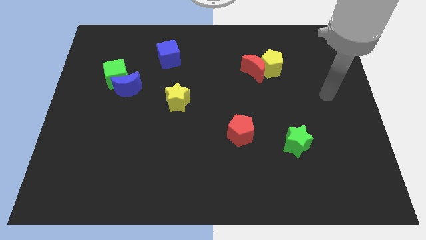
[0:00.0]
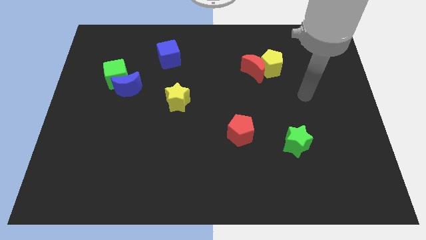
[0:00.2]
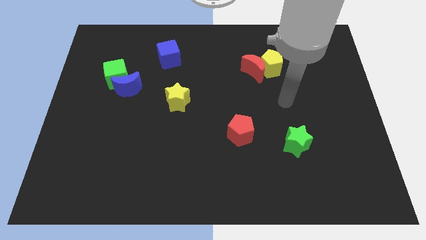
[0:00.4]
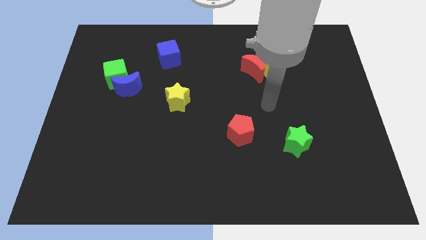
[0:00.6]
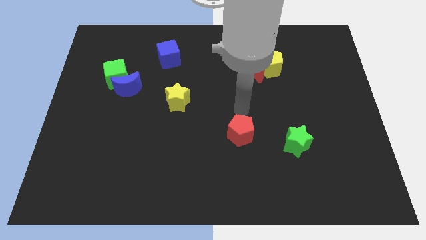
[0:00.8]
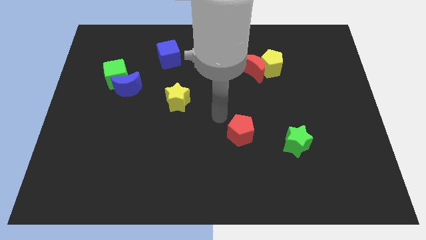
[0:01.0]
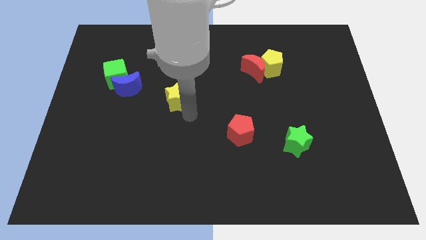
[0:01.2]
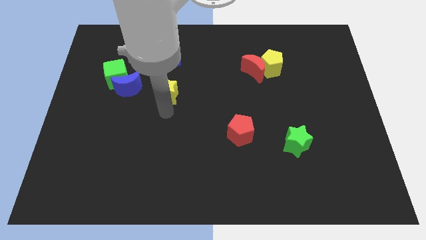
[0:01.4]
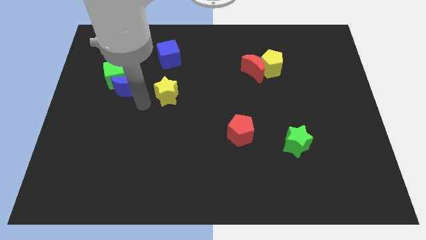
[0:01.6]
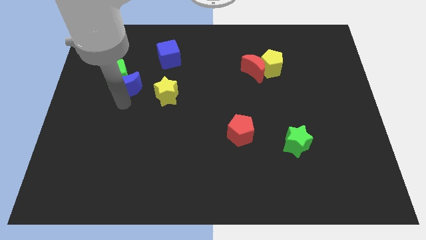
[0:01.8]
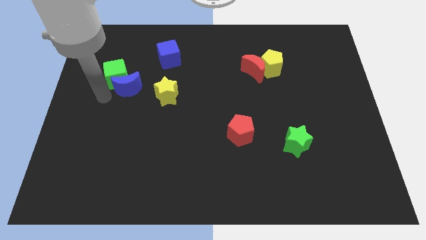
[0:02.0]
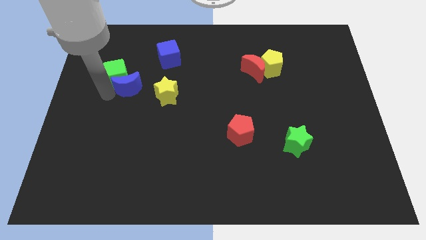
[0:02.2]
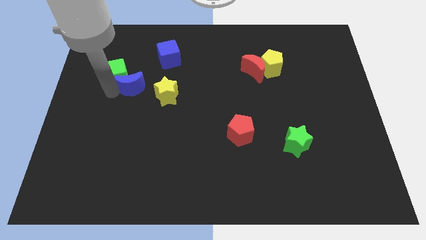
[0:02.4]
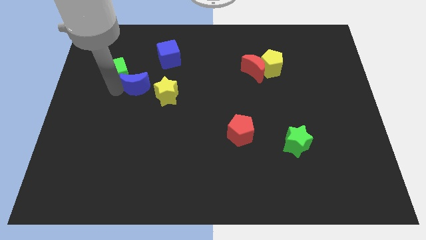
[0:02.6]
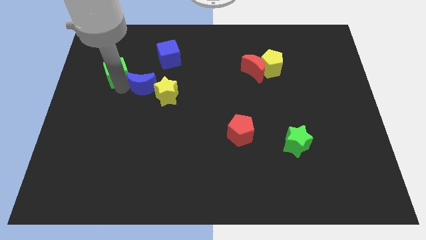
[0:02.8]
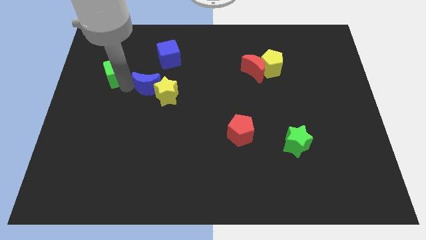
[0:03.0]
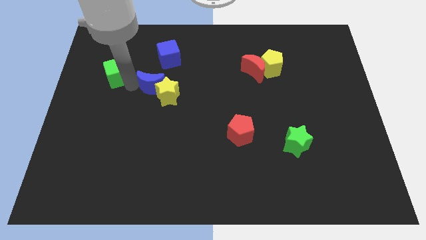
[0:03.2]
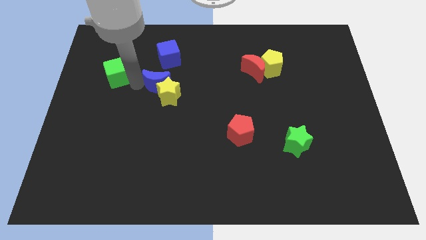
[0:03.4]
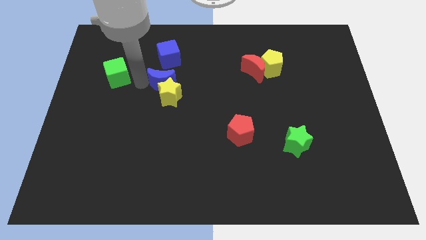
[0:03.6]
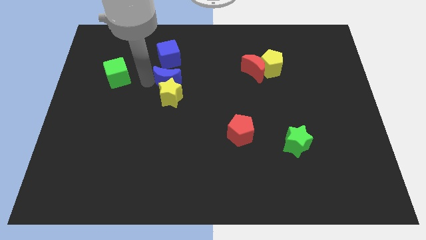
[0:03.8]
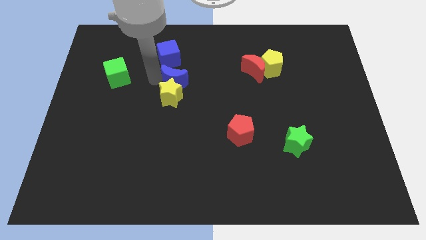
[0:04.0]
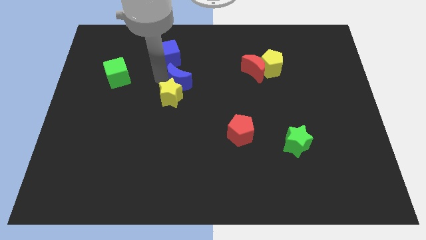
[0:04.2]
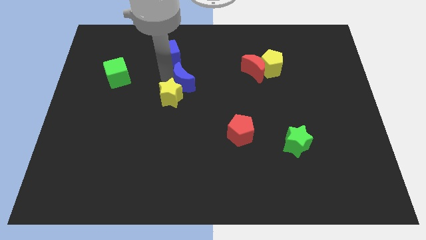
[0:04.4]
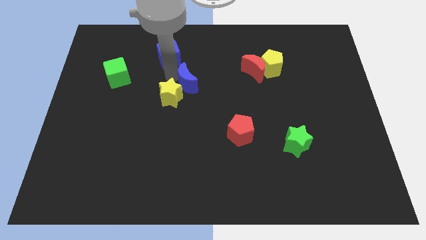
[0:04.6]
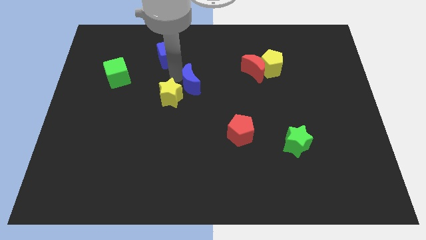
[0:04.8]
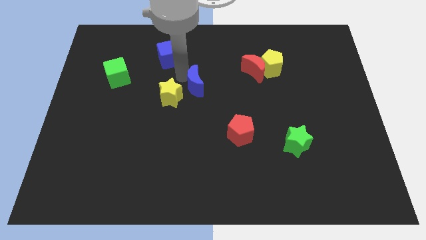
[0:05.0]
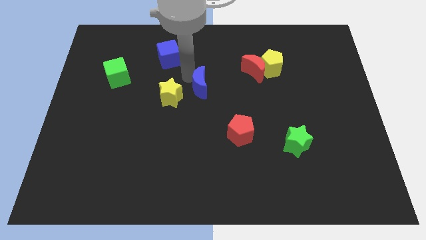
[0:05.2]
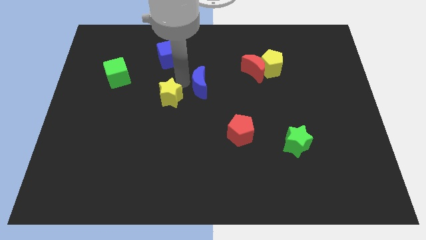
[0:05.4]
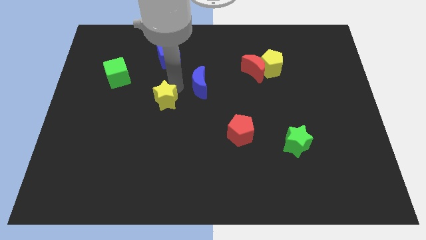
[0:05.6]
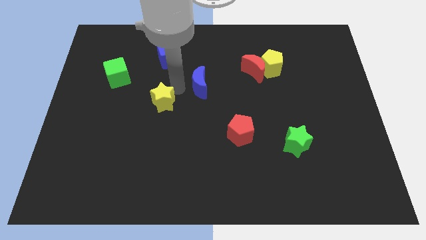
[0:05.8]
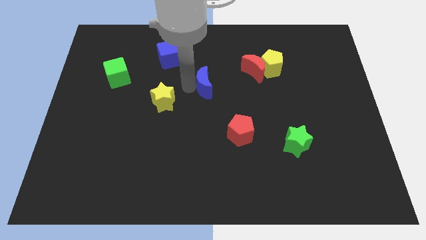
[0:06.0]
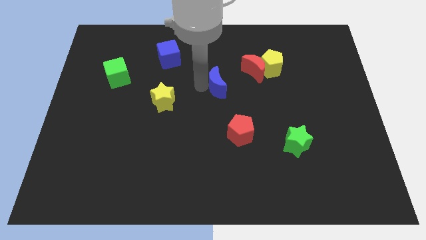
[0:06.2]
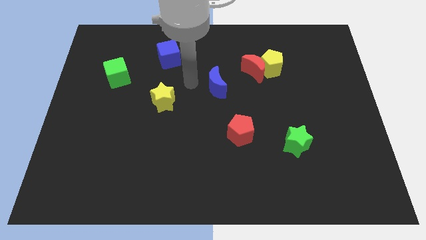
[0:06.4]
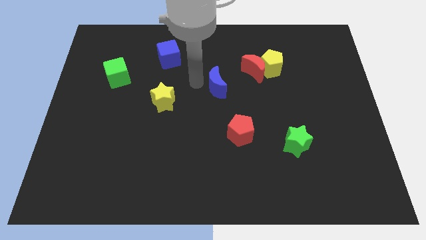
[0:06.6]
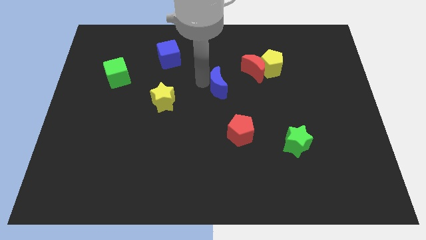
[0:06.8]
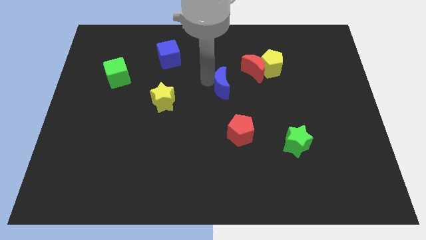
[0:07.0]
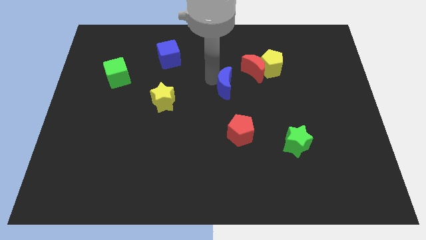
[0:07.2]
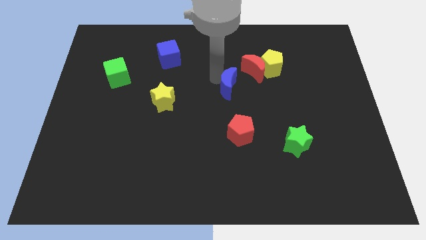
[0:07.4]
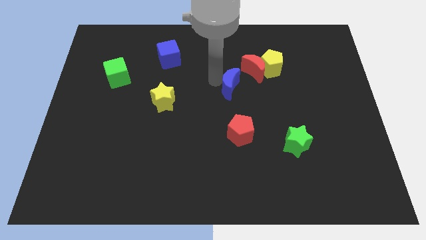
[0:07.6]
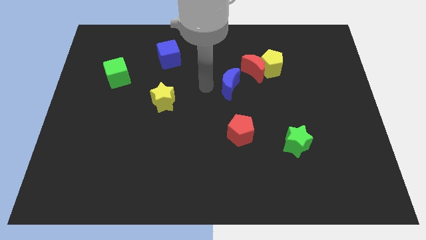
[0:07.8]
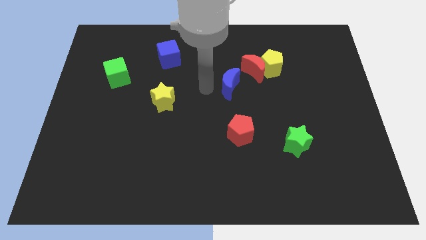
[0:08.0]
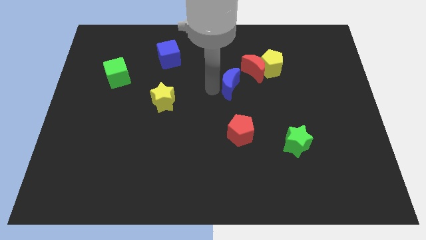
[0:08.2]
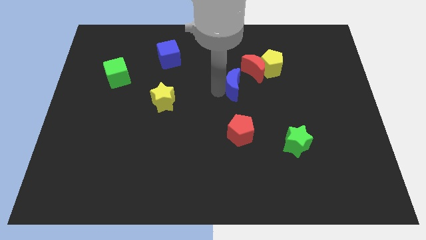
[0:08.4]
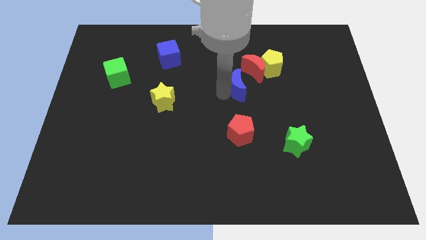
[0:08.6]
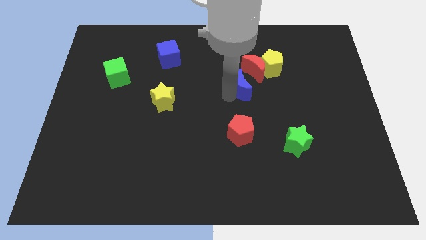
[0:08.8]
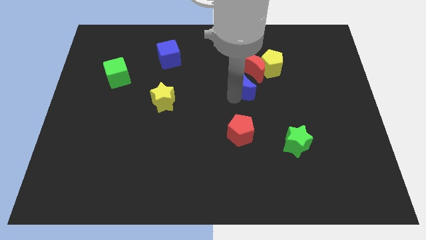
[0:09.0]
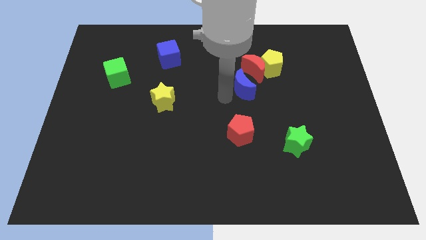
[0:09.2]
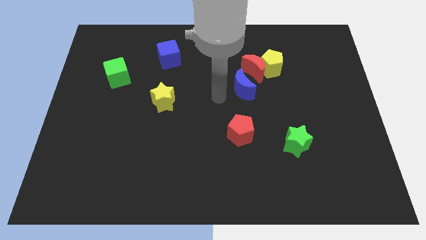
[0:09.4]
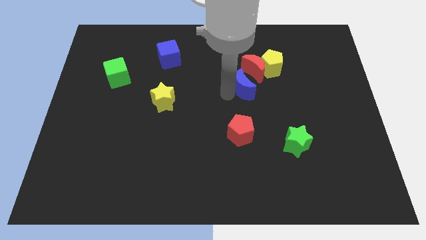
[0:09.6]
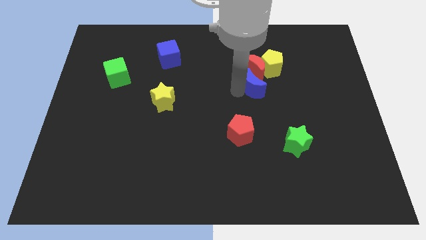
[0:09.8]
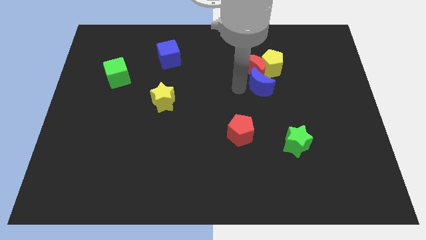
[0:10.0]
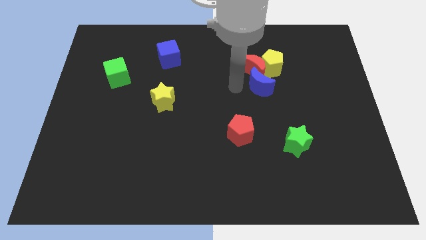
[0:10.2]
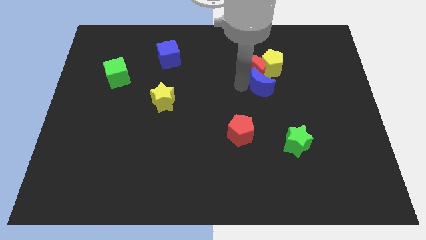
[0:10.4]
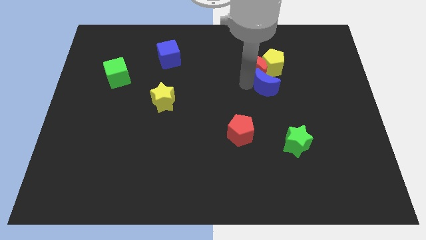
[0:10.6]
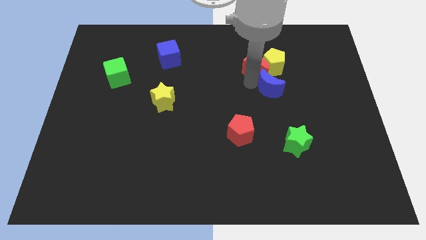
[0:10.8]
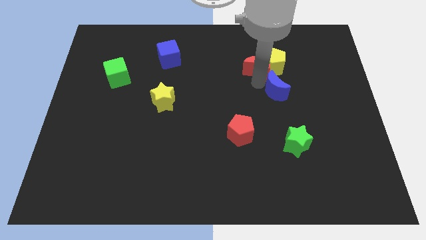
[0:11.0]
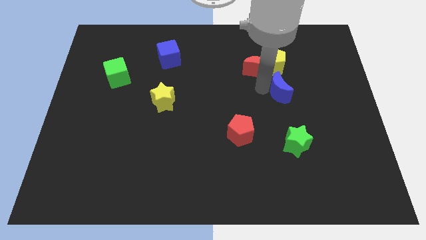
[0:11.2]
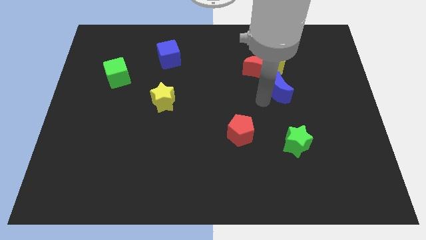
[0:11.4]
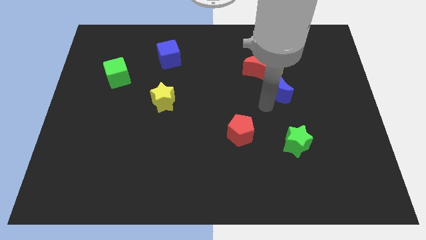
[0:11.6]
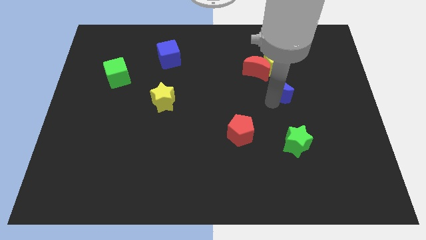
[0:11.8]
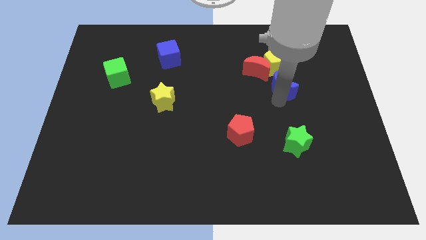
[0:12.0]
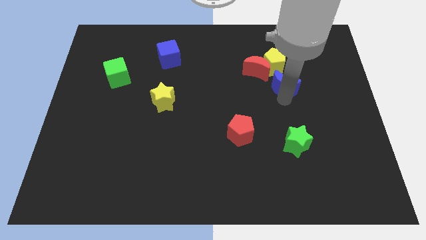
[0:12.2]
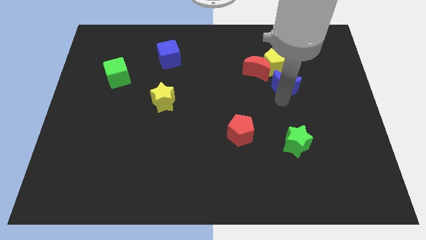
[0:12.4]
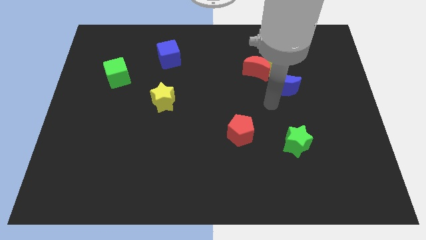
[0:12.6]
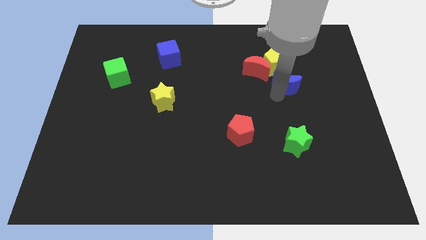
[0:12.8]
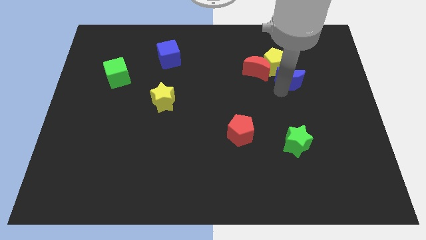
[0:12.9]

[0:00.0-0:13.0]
slide the blue moon to the right of the red moon
